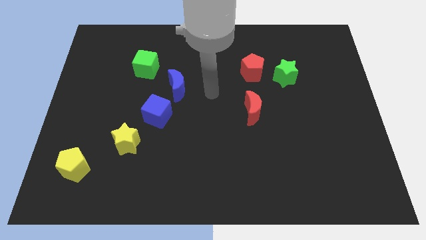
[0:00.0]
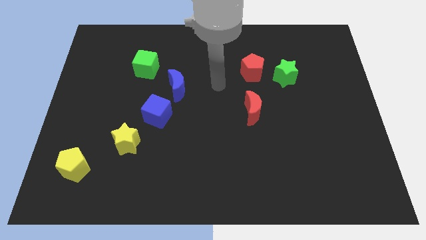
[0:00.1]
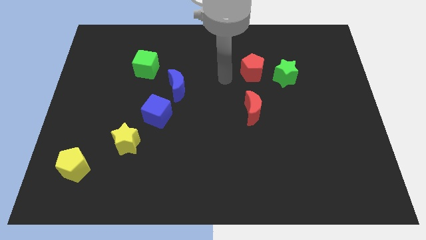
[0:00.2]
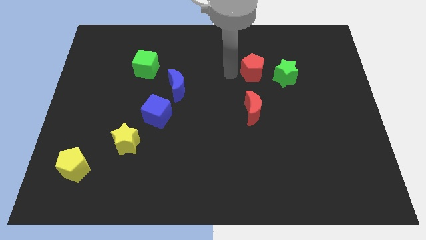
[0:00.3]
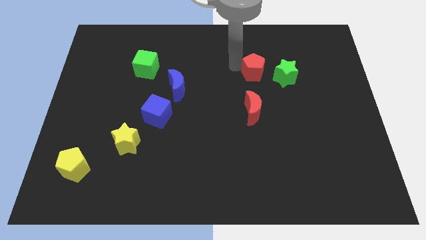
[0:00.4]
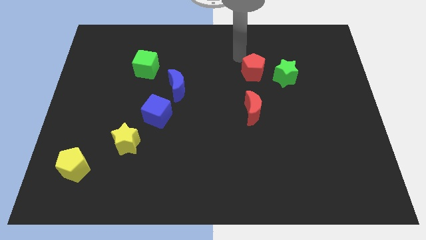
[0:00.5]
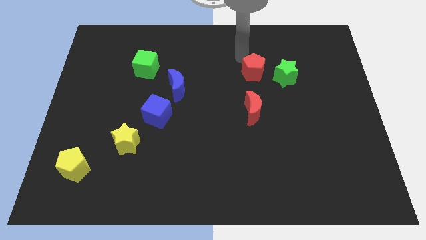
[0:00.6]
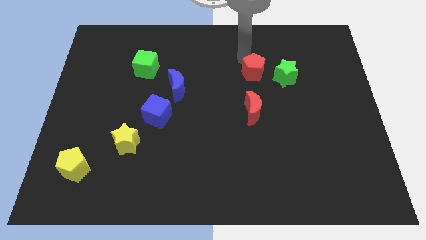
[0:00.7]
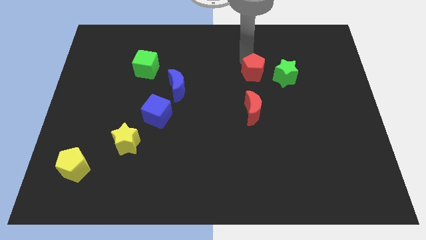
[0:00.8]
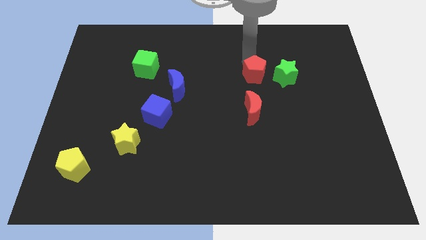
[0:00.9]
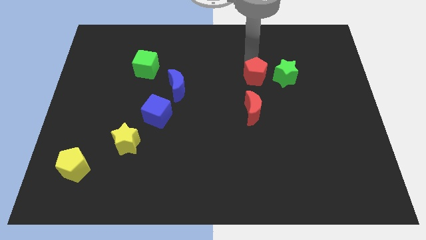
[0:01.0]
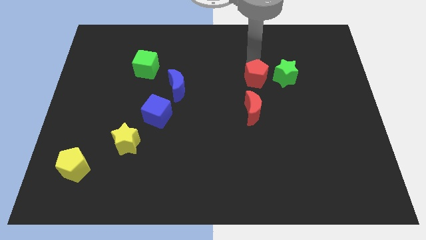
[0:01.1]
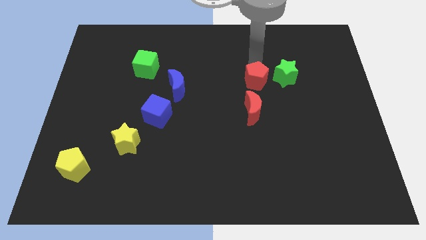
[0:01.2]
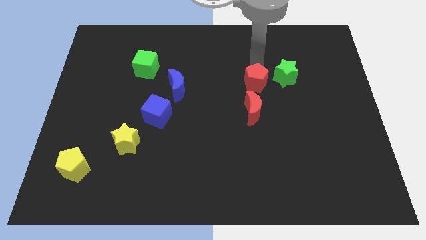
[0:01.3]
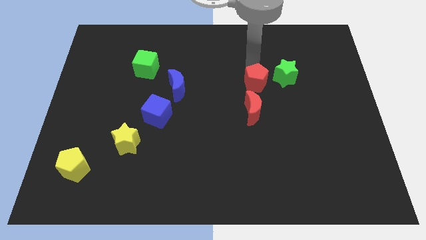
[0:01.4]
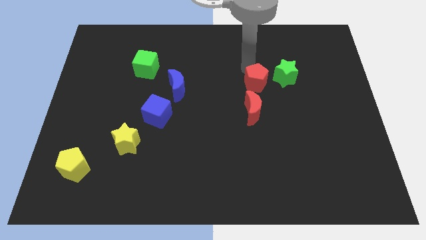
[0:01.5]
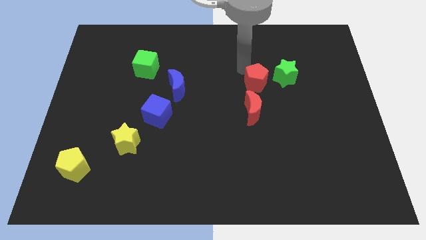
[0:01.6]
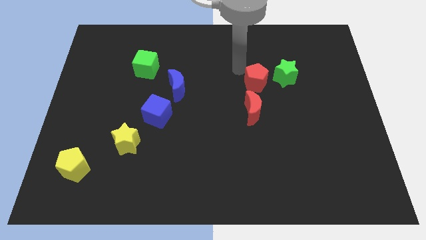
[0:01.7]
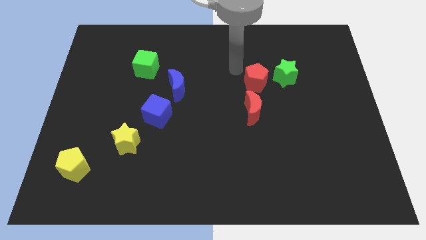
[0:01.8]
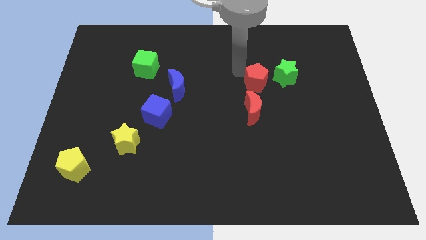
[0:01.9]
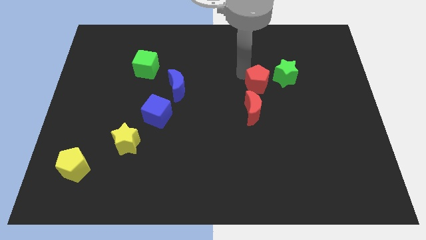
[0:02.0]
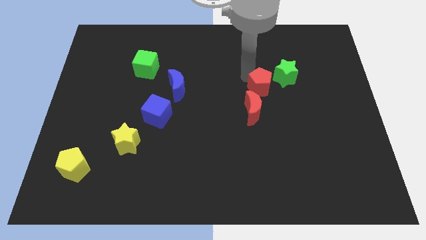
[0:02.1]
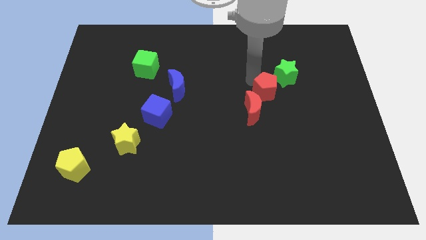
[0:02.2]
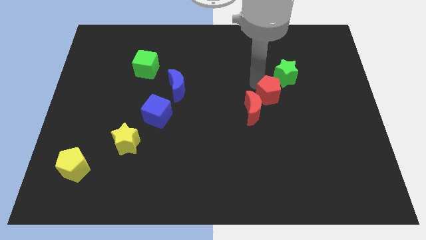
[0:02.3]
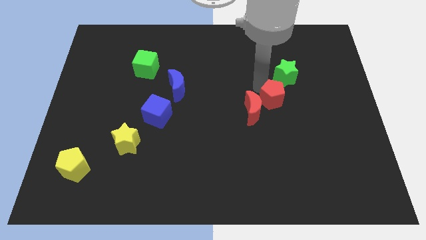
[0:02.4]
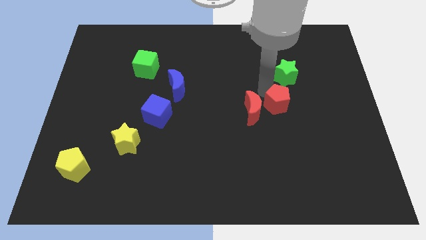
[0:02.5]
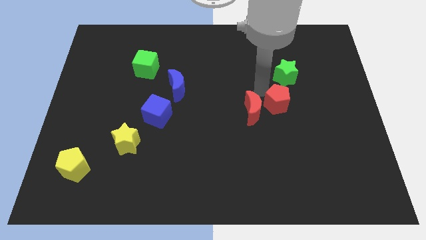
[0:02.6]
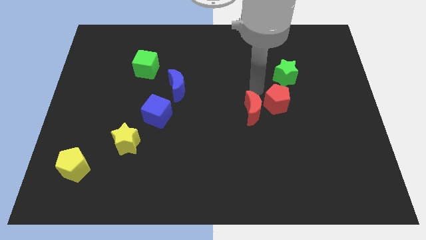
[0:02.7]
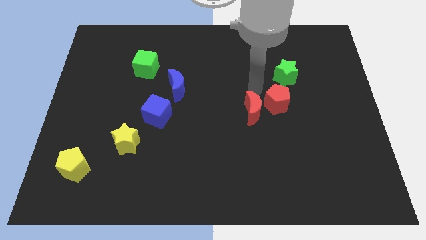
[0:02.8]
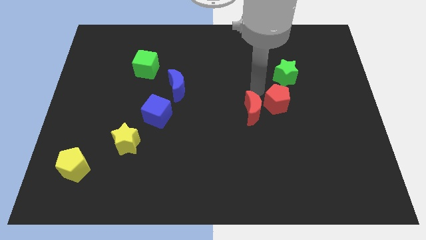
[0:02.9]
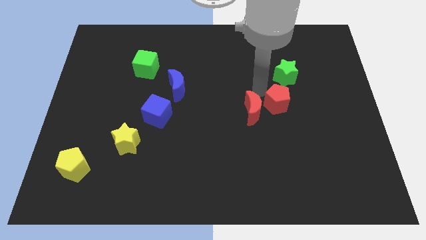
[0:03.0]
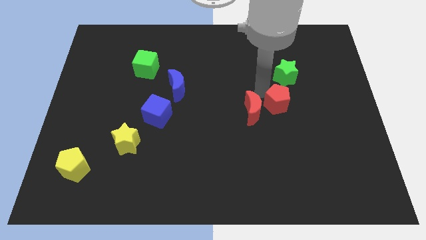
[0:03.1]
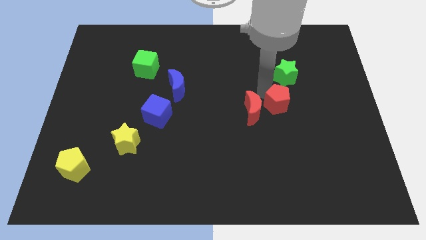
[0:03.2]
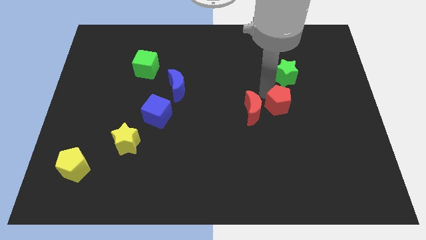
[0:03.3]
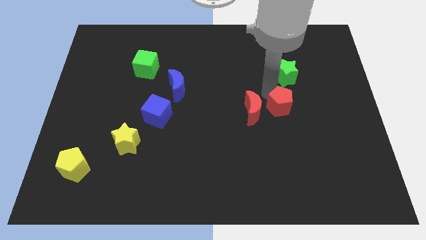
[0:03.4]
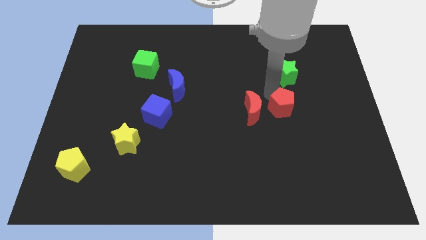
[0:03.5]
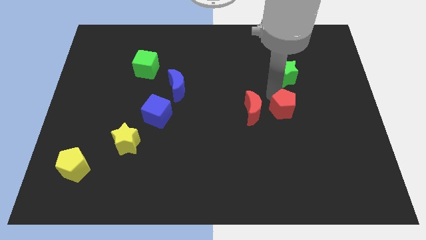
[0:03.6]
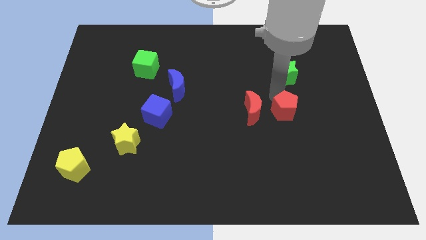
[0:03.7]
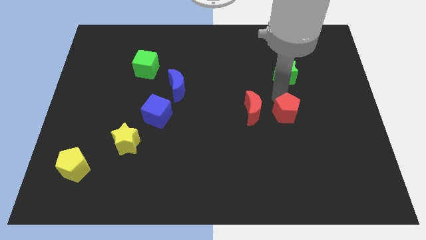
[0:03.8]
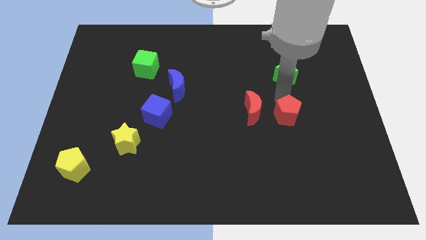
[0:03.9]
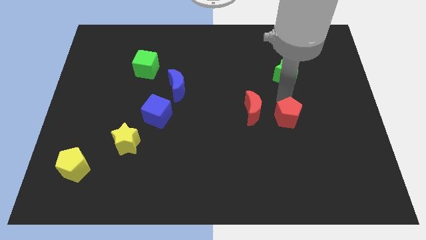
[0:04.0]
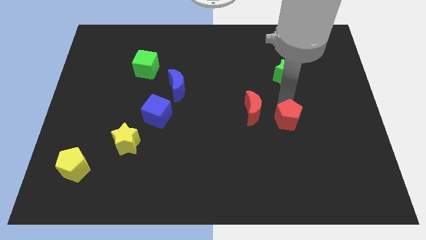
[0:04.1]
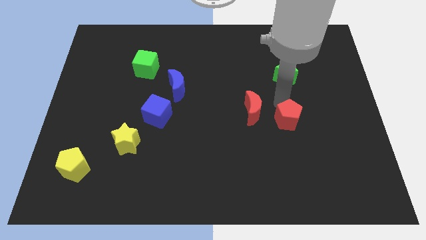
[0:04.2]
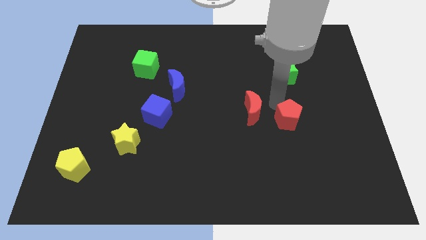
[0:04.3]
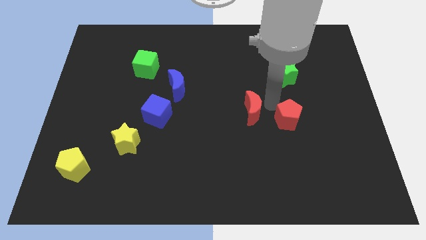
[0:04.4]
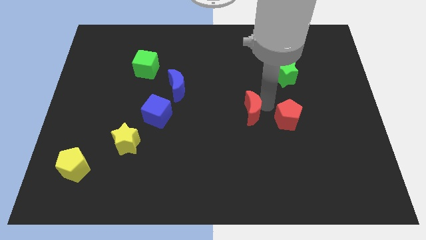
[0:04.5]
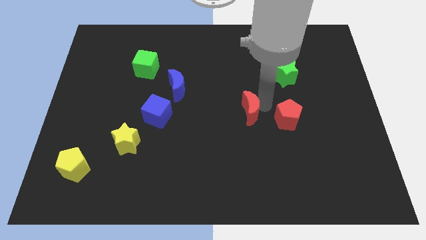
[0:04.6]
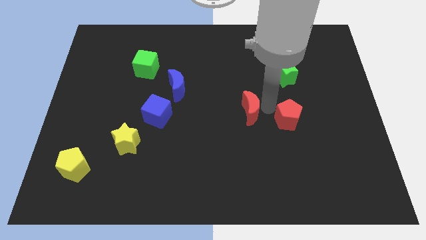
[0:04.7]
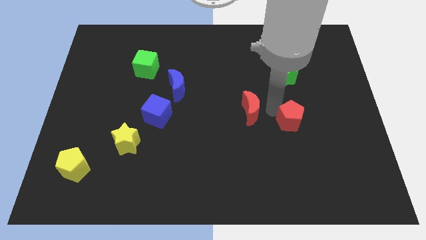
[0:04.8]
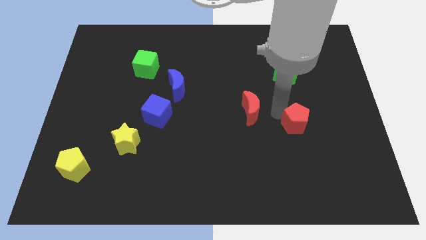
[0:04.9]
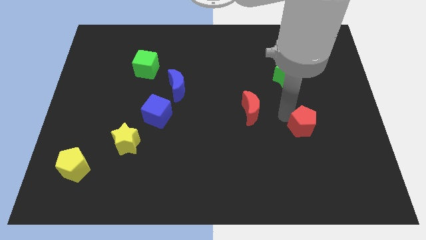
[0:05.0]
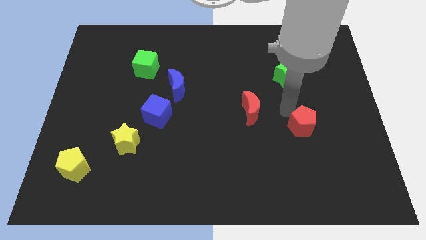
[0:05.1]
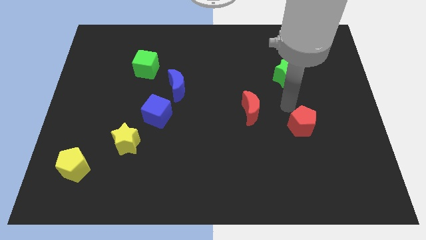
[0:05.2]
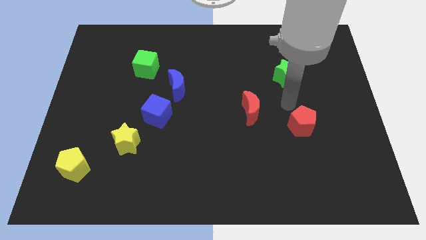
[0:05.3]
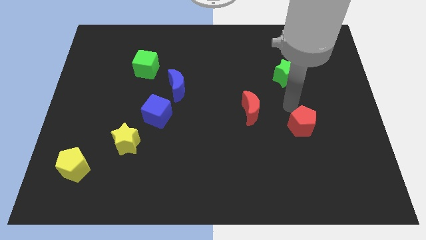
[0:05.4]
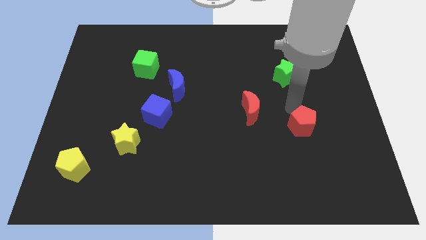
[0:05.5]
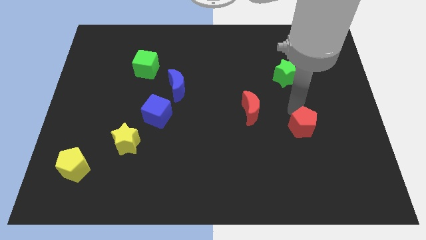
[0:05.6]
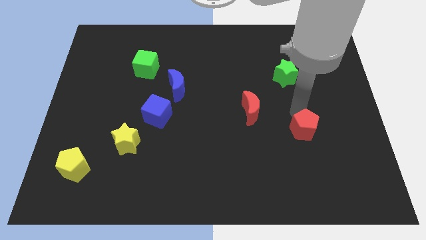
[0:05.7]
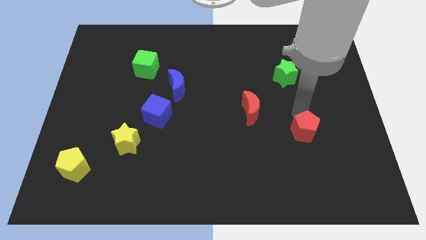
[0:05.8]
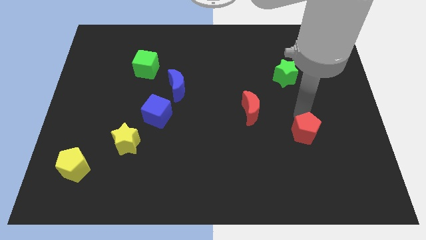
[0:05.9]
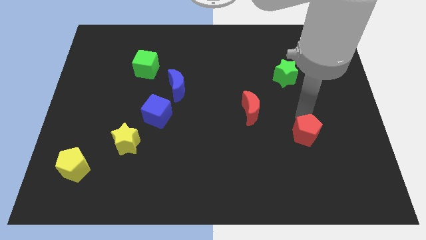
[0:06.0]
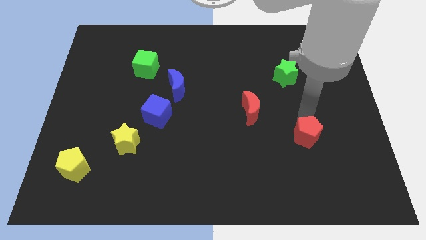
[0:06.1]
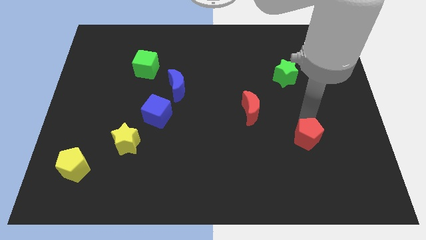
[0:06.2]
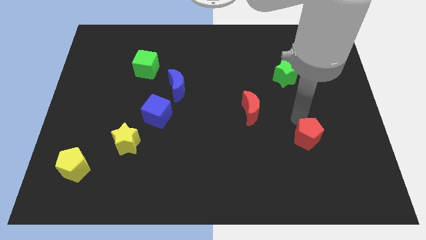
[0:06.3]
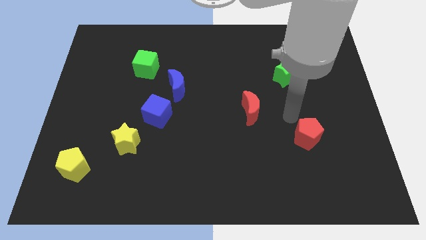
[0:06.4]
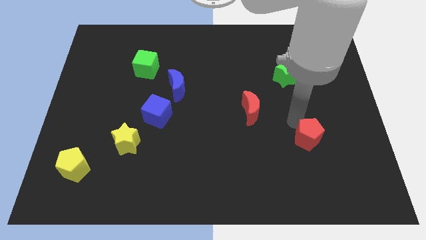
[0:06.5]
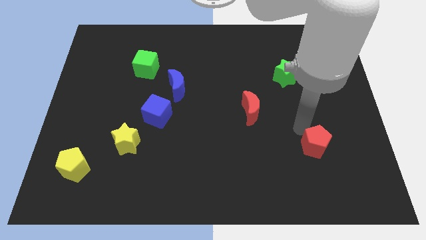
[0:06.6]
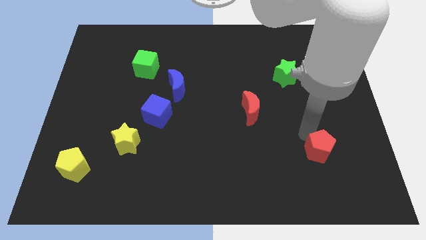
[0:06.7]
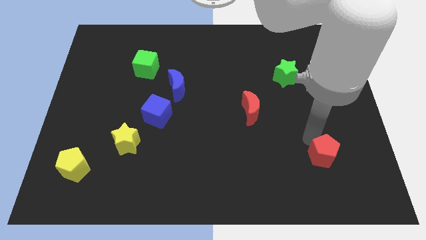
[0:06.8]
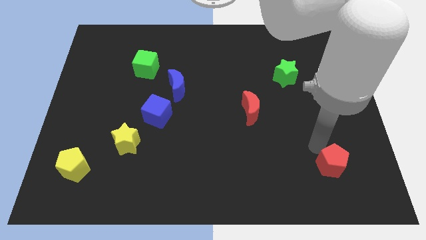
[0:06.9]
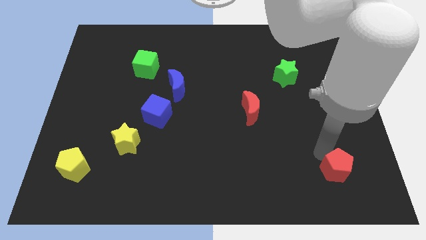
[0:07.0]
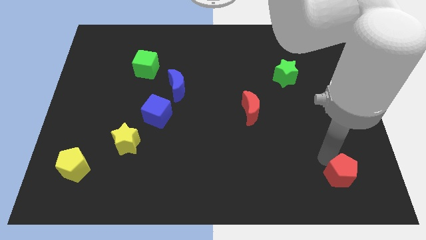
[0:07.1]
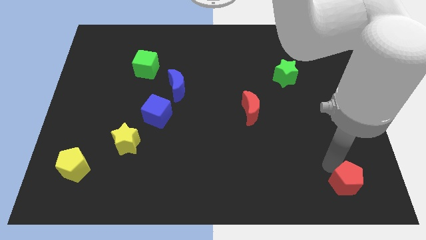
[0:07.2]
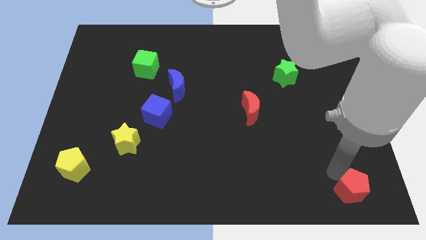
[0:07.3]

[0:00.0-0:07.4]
slide the red pentagon to the lower right corner
